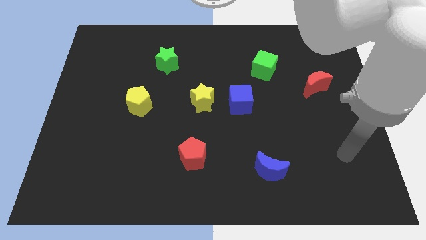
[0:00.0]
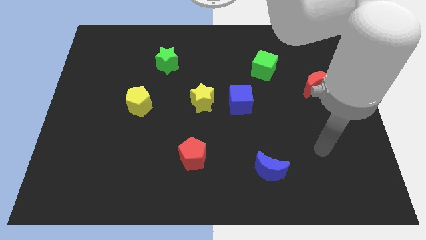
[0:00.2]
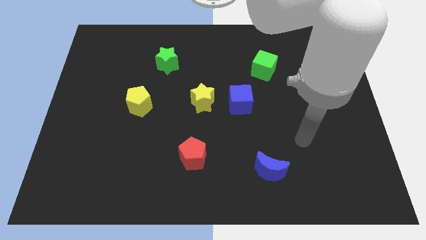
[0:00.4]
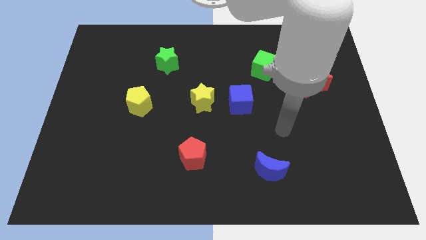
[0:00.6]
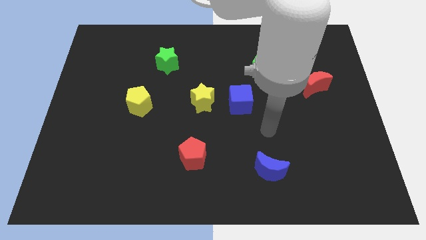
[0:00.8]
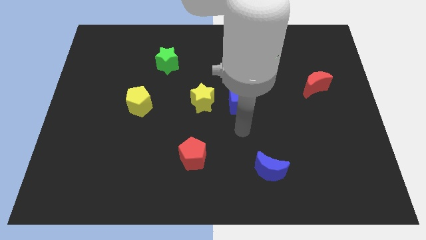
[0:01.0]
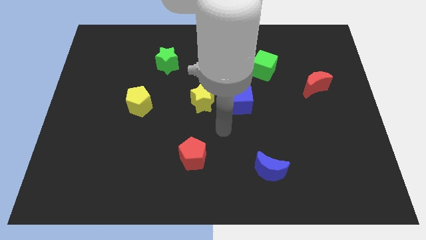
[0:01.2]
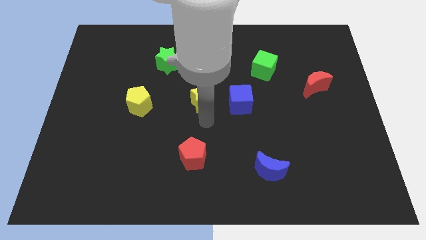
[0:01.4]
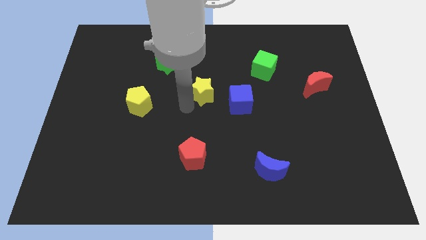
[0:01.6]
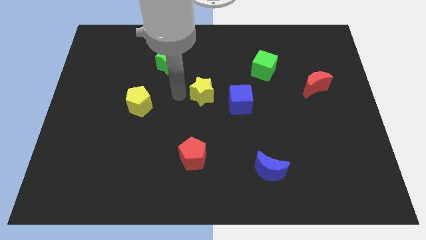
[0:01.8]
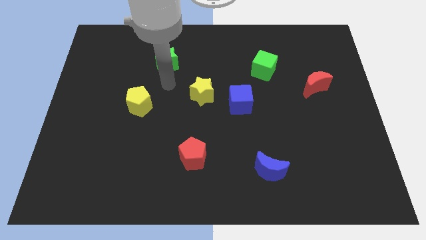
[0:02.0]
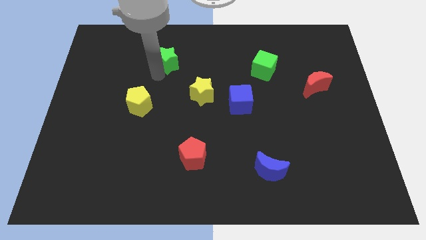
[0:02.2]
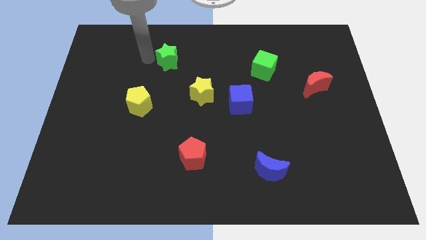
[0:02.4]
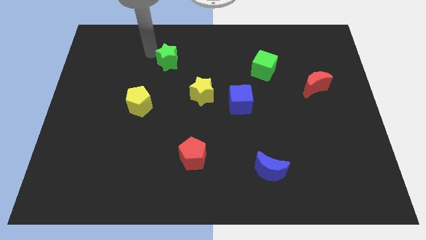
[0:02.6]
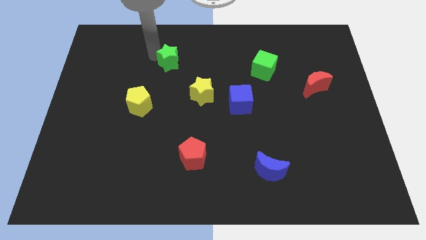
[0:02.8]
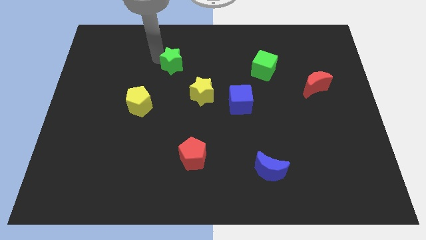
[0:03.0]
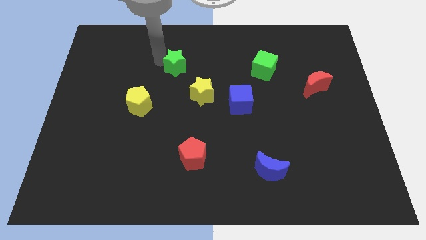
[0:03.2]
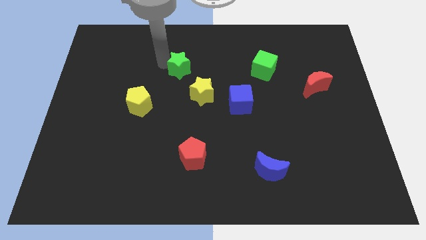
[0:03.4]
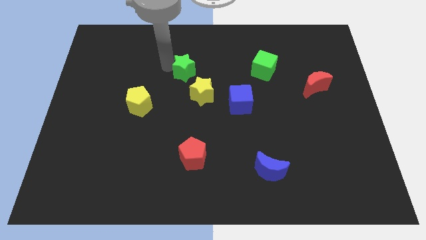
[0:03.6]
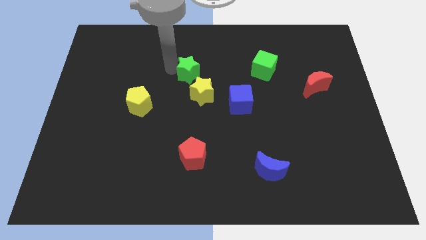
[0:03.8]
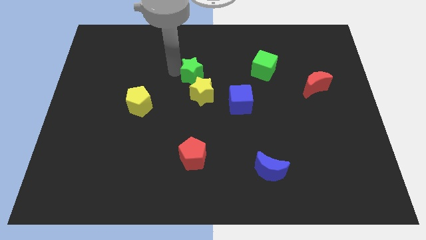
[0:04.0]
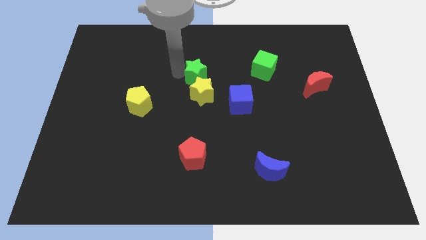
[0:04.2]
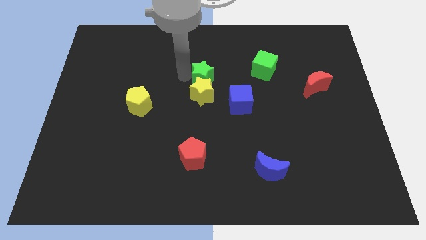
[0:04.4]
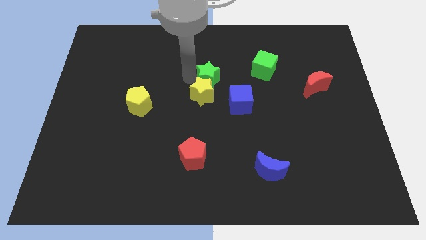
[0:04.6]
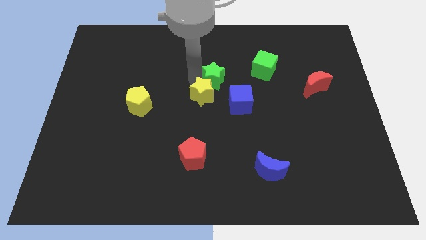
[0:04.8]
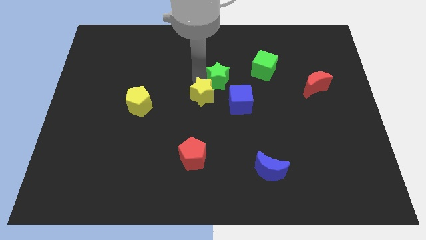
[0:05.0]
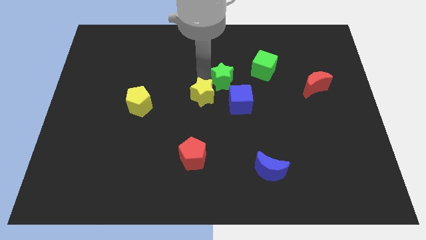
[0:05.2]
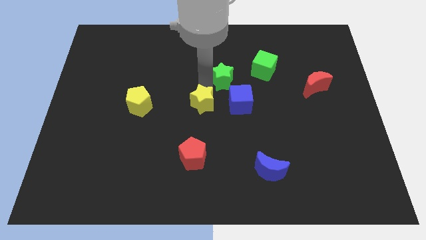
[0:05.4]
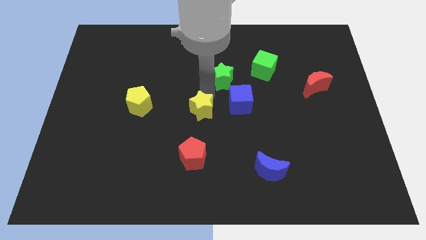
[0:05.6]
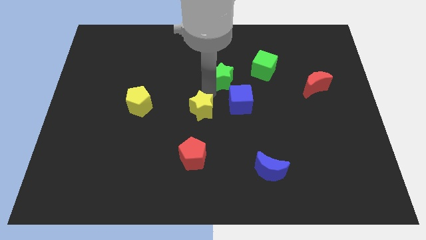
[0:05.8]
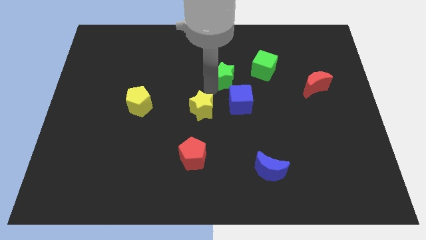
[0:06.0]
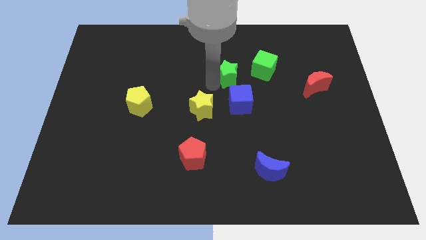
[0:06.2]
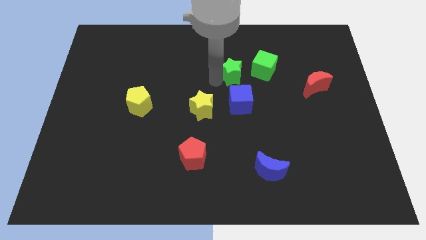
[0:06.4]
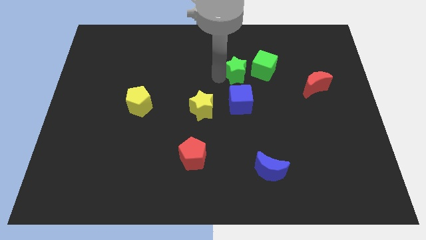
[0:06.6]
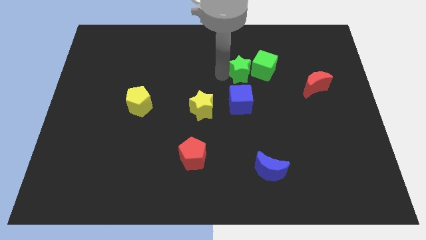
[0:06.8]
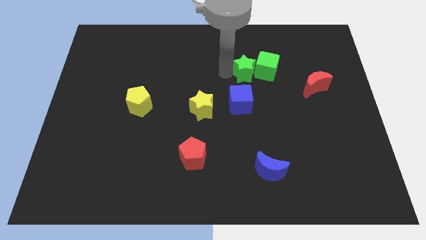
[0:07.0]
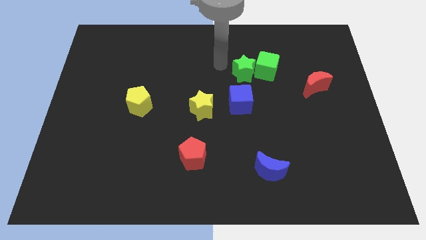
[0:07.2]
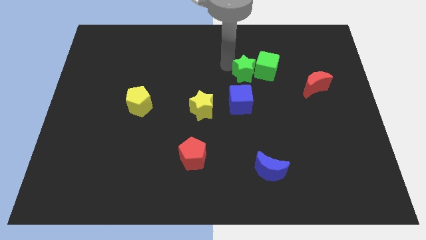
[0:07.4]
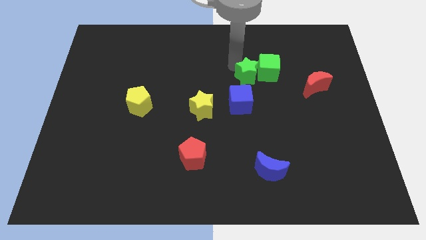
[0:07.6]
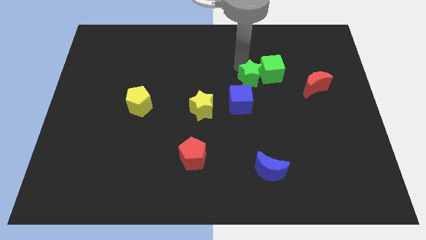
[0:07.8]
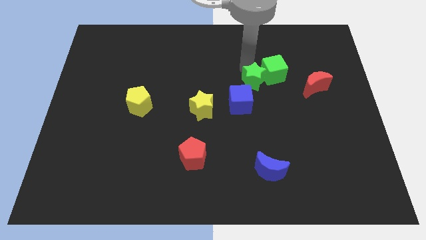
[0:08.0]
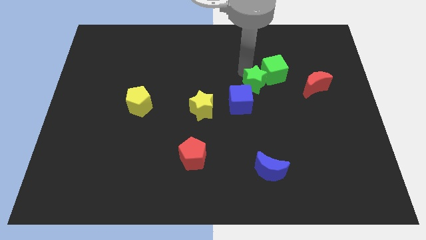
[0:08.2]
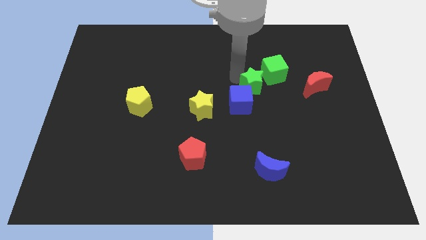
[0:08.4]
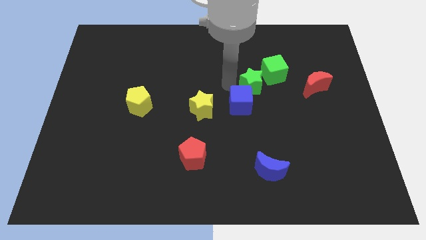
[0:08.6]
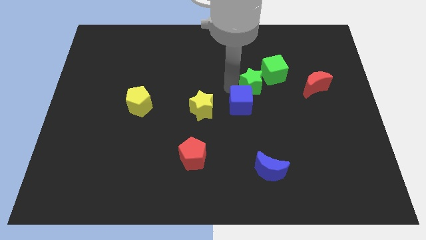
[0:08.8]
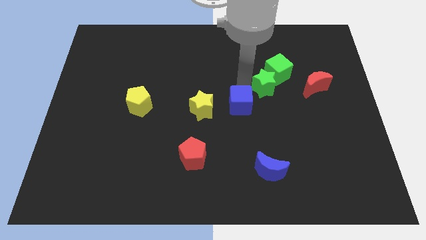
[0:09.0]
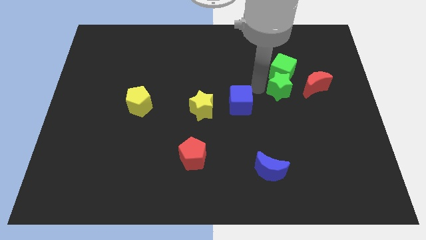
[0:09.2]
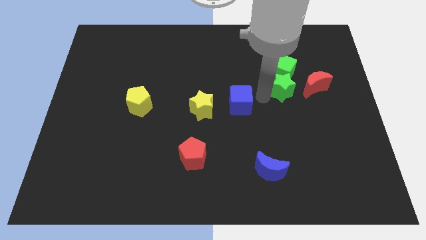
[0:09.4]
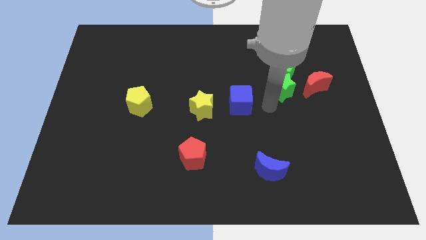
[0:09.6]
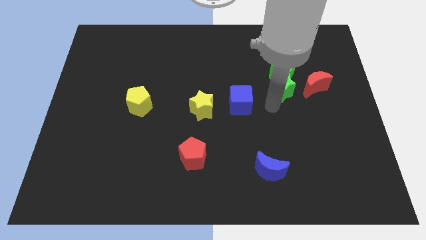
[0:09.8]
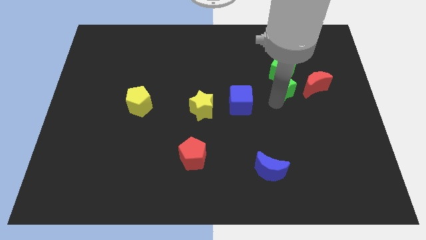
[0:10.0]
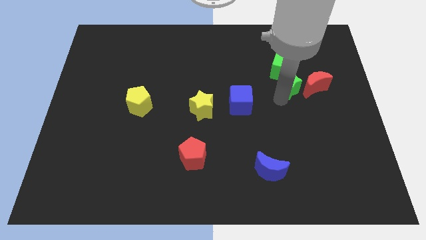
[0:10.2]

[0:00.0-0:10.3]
put the green star to the top left of the red moon

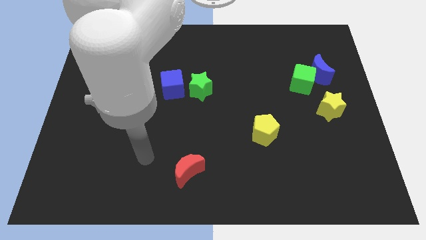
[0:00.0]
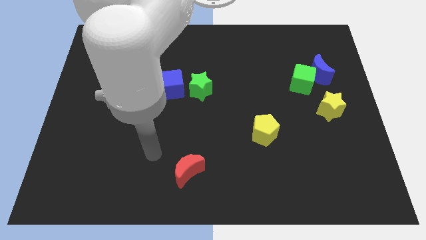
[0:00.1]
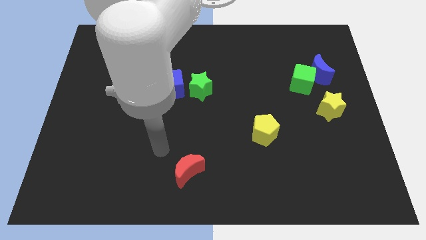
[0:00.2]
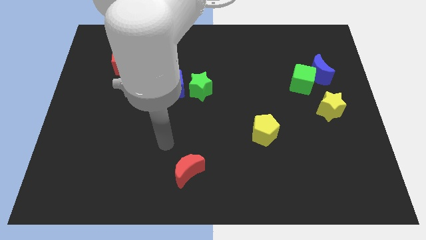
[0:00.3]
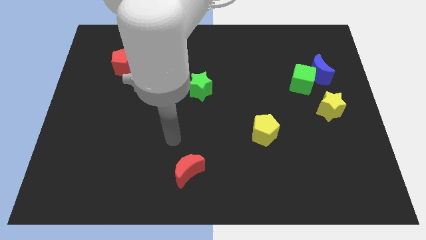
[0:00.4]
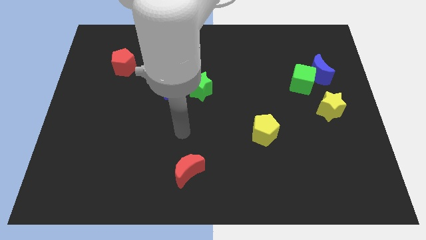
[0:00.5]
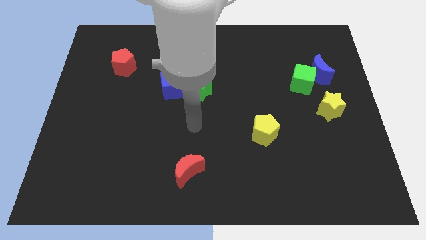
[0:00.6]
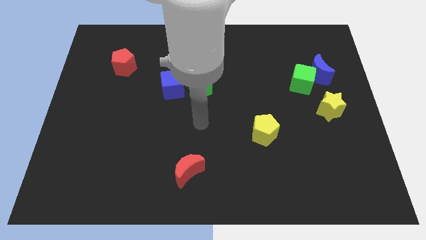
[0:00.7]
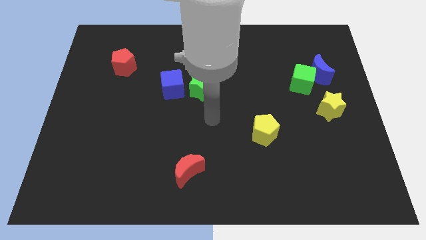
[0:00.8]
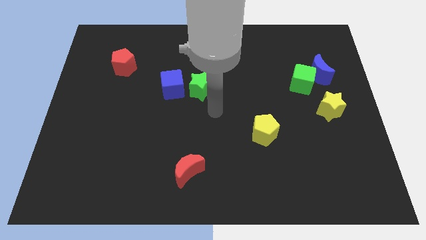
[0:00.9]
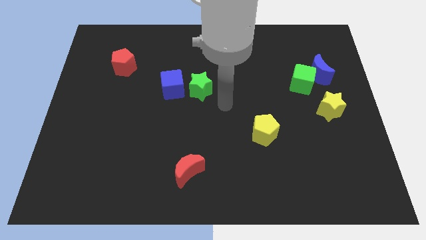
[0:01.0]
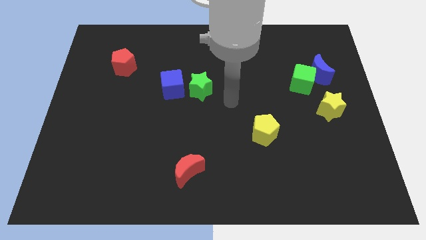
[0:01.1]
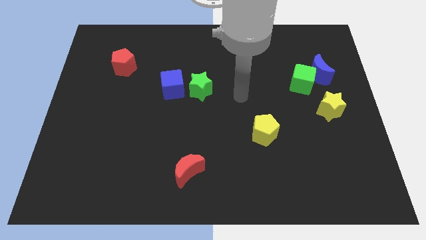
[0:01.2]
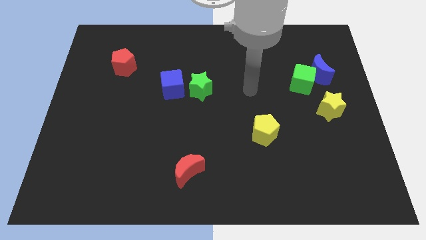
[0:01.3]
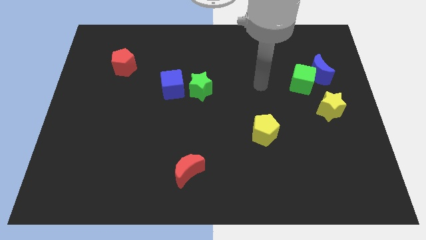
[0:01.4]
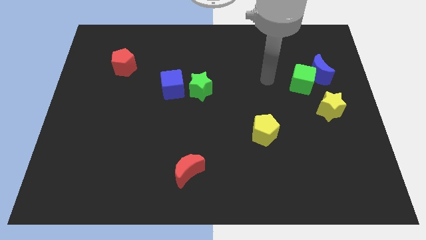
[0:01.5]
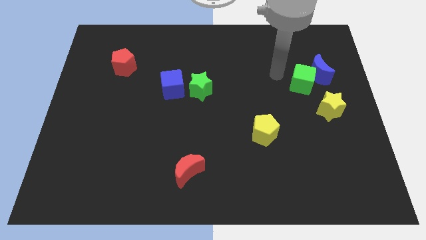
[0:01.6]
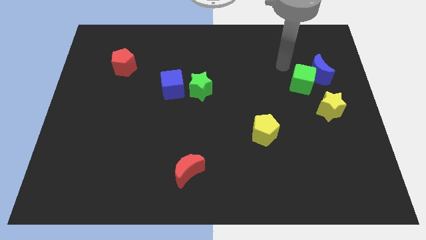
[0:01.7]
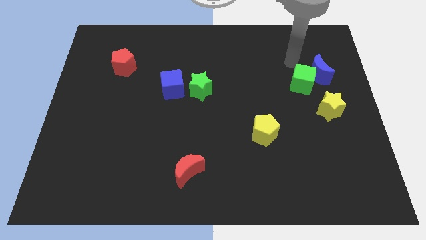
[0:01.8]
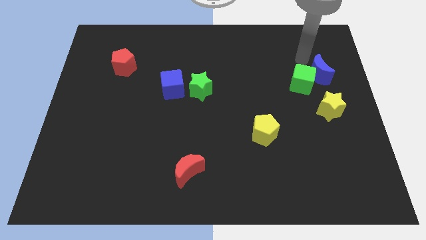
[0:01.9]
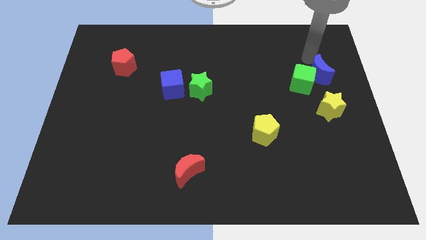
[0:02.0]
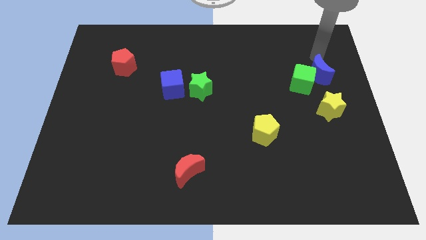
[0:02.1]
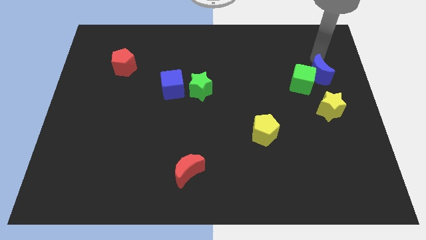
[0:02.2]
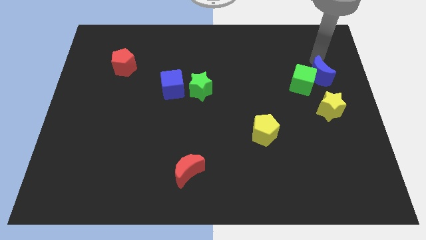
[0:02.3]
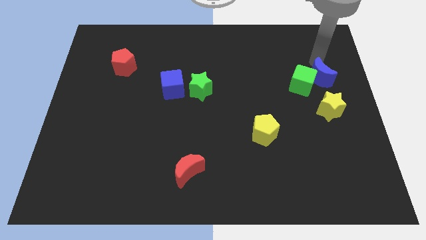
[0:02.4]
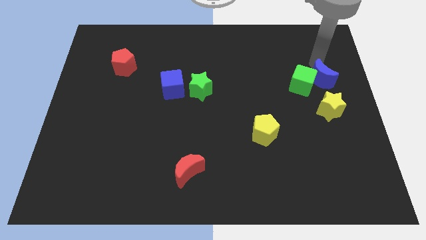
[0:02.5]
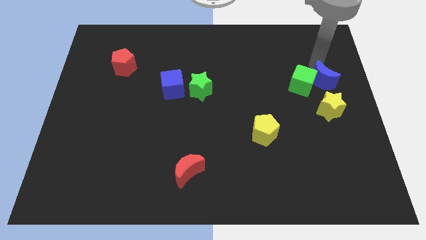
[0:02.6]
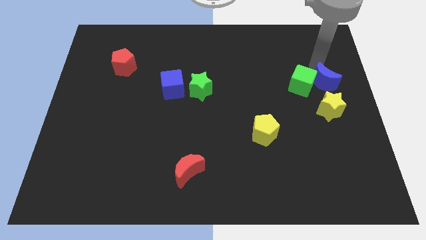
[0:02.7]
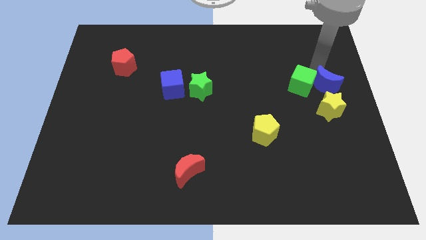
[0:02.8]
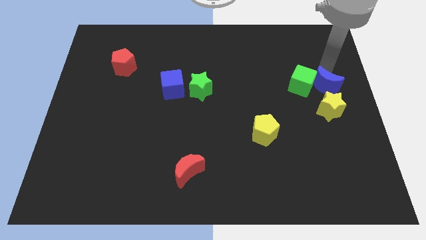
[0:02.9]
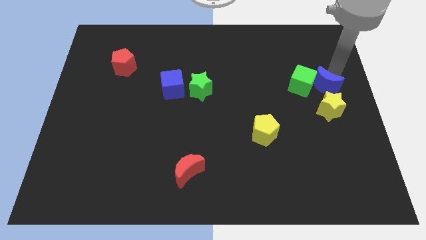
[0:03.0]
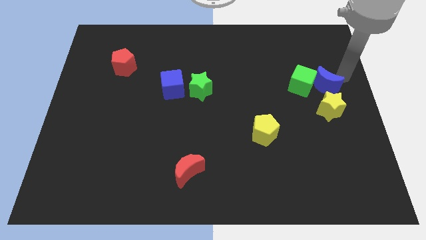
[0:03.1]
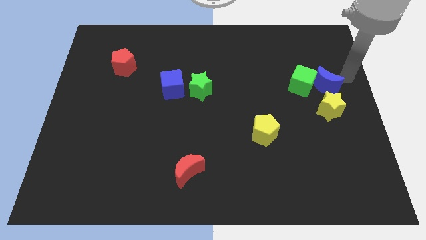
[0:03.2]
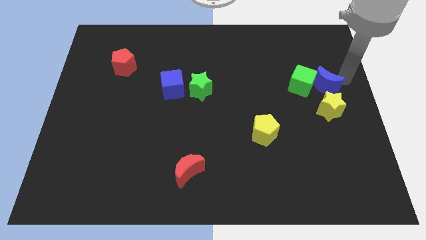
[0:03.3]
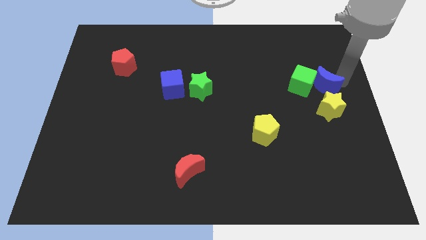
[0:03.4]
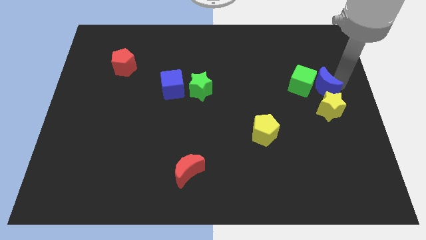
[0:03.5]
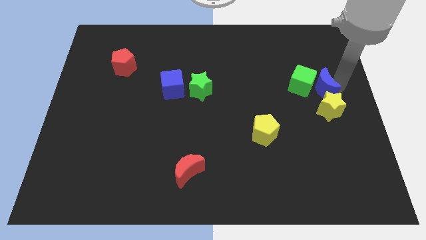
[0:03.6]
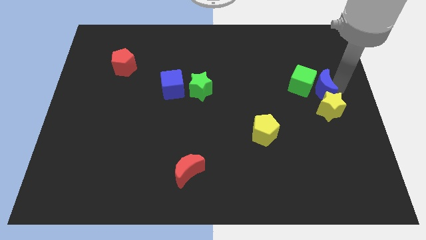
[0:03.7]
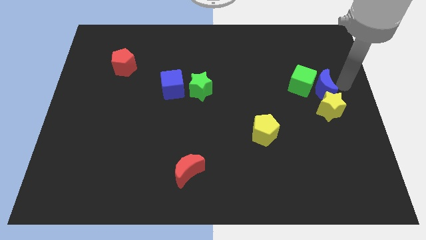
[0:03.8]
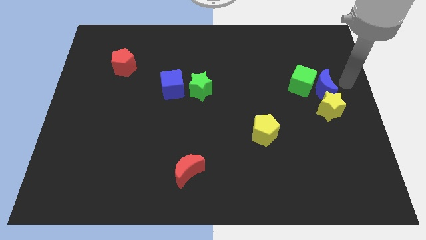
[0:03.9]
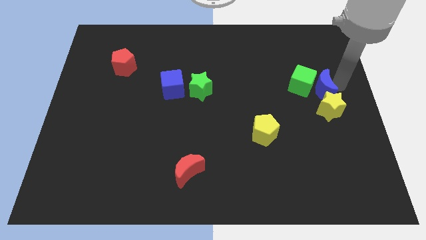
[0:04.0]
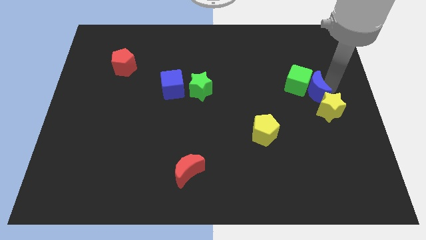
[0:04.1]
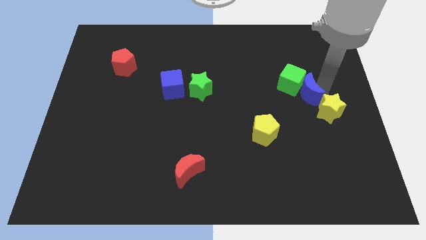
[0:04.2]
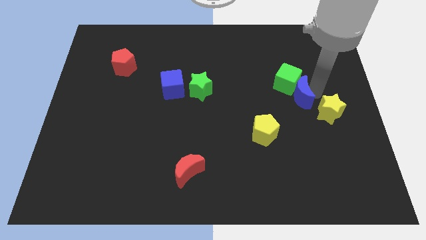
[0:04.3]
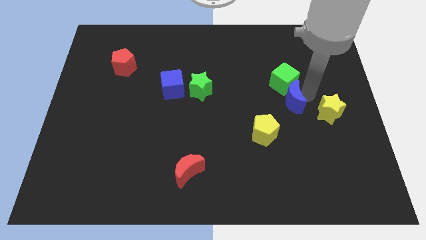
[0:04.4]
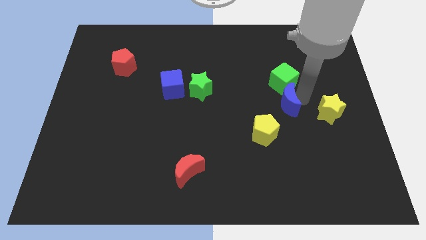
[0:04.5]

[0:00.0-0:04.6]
move the blue moon to the bottom left of the green cube
